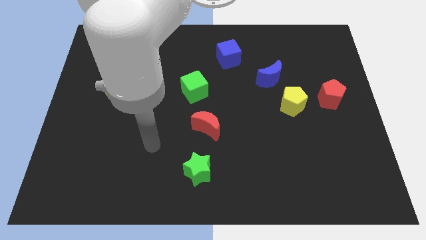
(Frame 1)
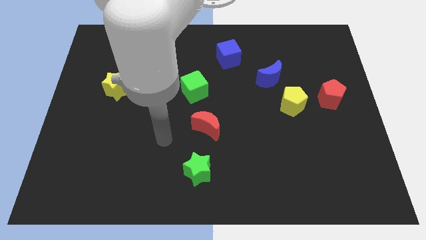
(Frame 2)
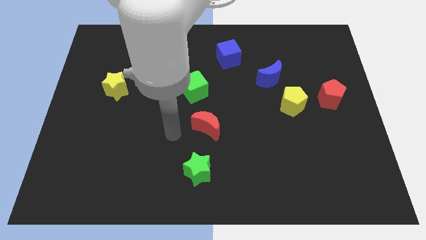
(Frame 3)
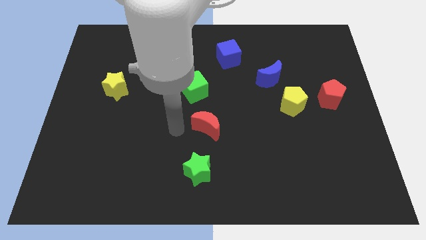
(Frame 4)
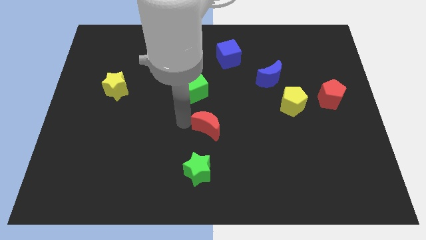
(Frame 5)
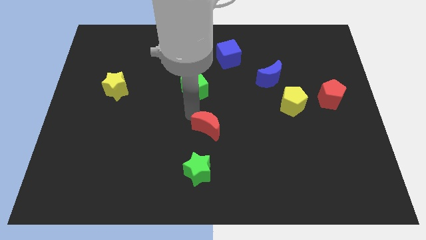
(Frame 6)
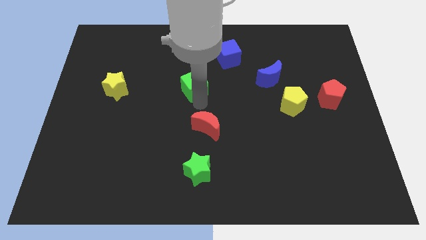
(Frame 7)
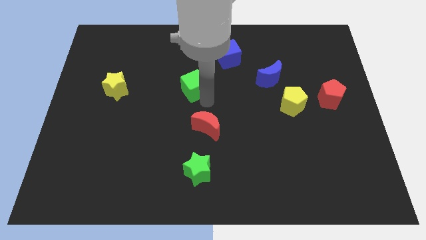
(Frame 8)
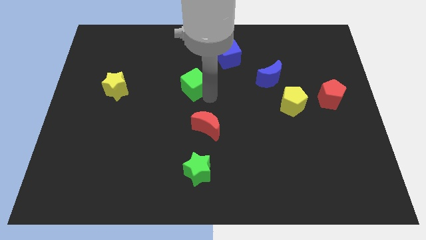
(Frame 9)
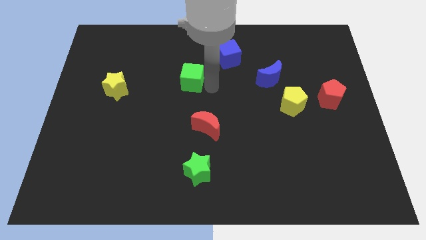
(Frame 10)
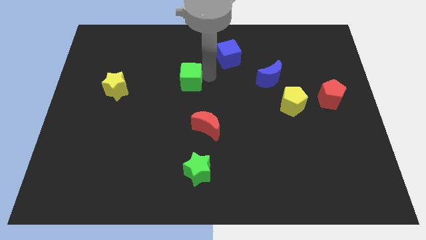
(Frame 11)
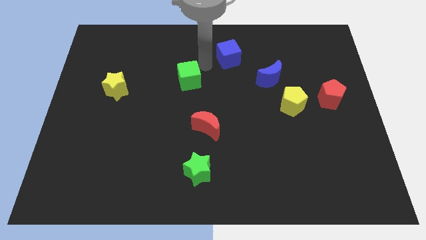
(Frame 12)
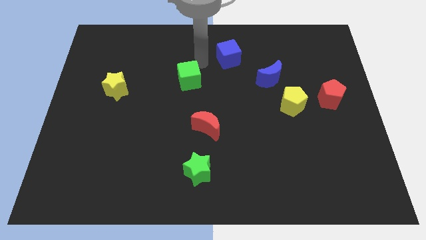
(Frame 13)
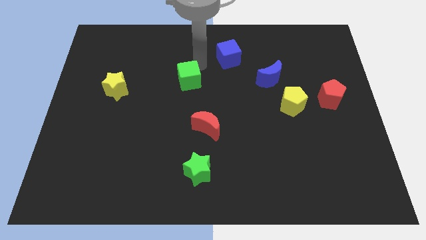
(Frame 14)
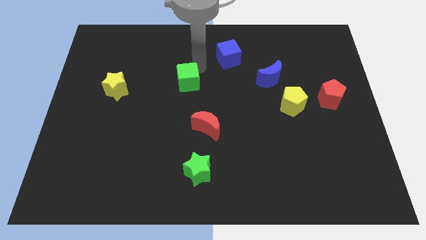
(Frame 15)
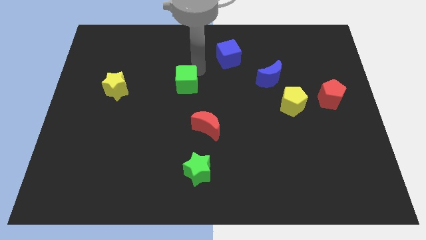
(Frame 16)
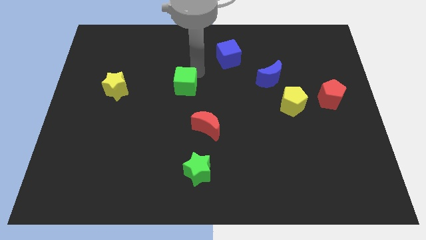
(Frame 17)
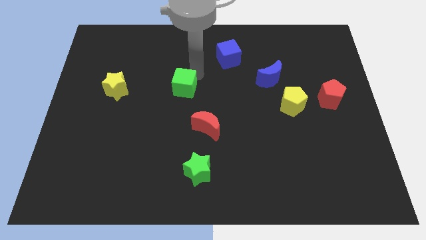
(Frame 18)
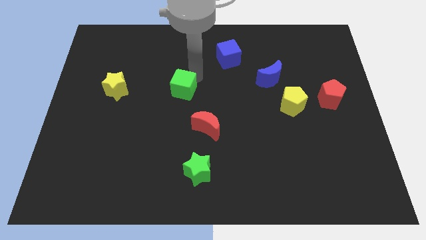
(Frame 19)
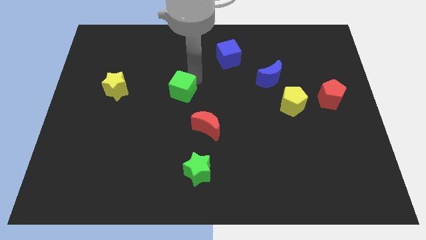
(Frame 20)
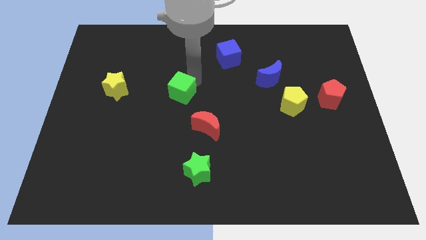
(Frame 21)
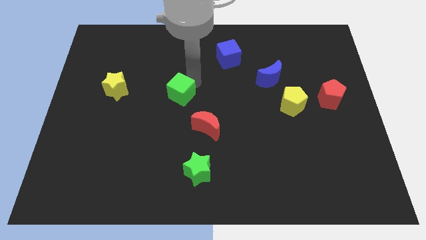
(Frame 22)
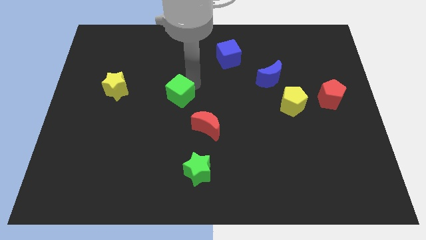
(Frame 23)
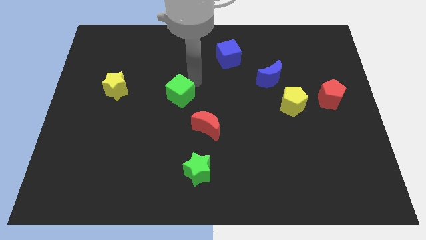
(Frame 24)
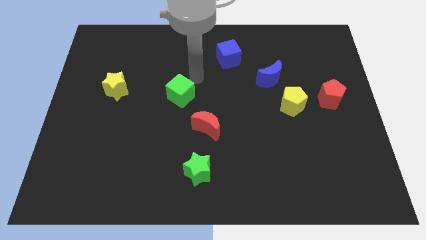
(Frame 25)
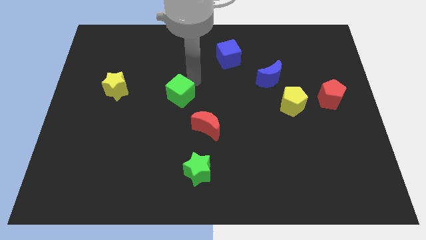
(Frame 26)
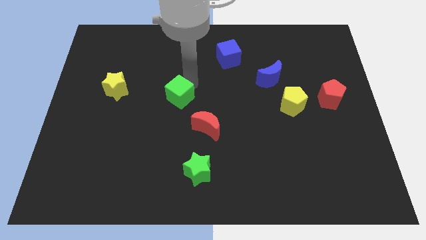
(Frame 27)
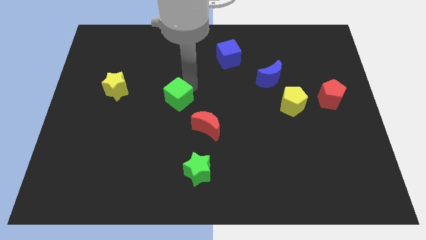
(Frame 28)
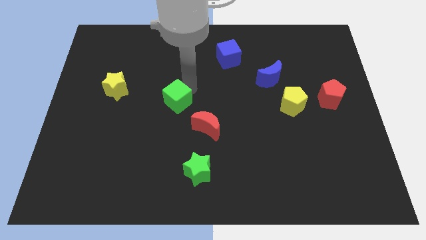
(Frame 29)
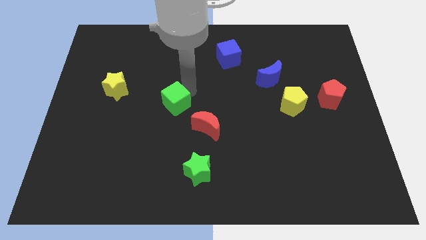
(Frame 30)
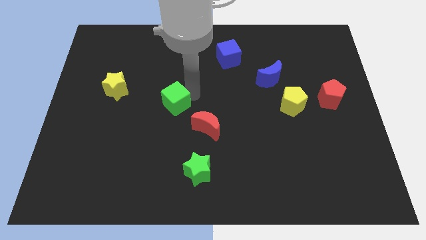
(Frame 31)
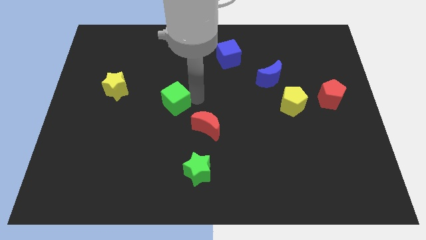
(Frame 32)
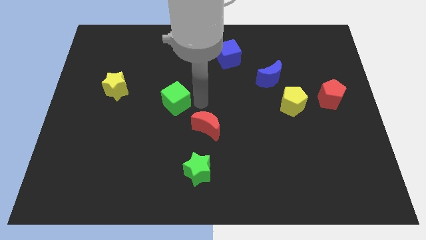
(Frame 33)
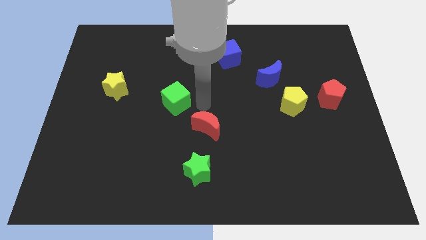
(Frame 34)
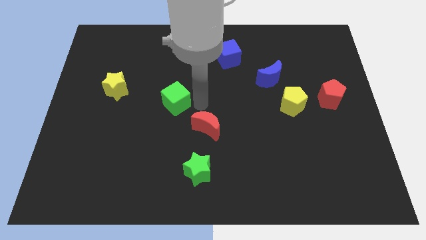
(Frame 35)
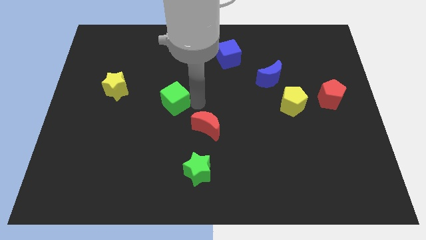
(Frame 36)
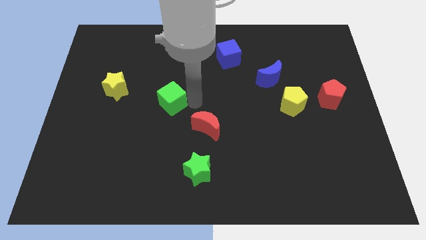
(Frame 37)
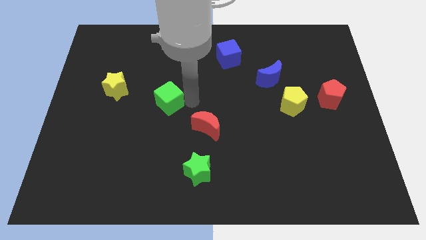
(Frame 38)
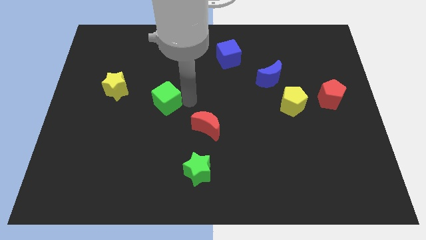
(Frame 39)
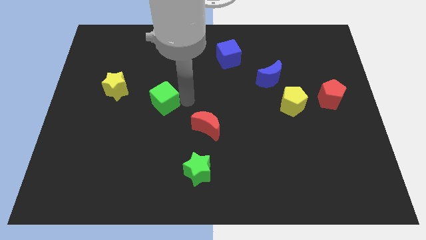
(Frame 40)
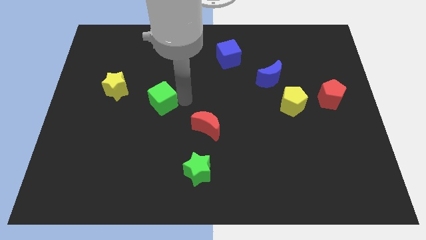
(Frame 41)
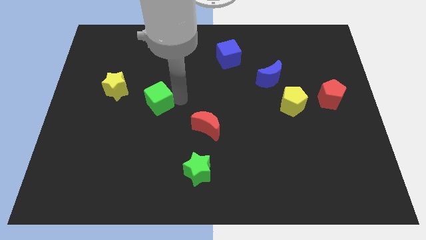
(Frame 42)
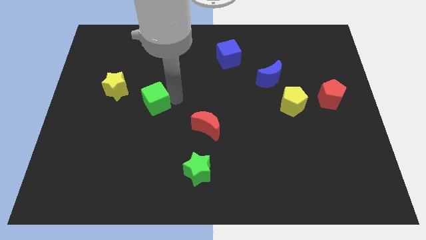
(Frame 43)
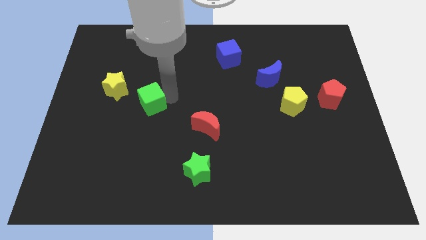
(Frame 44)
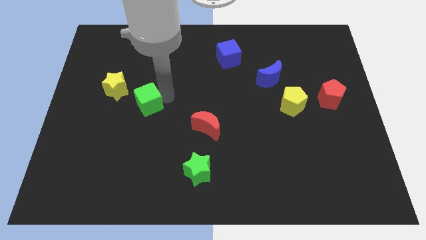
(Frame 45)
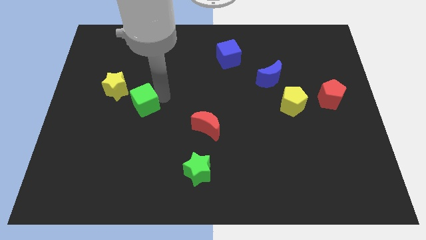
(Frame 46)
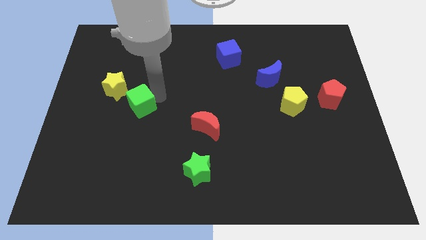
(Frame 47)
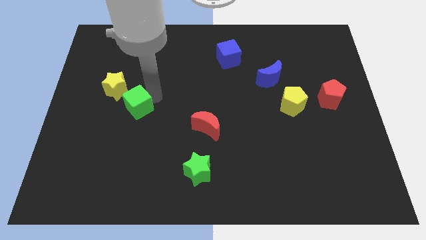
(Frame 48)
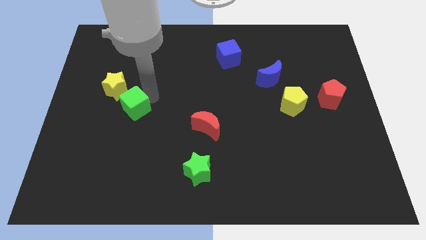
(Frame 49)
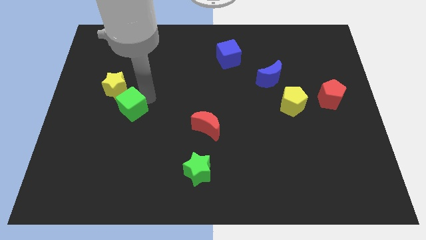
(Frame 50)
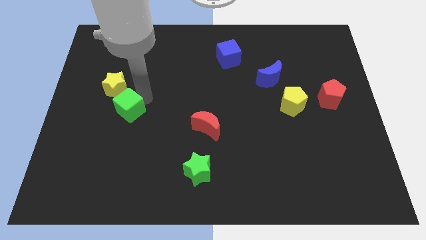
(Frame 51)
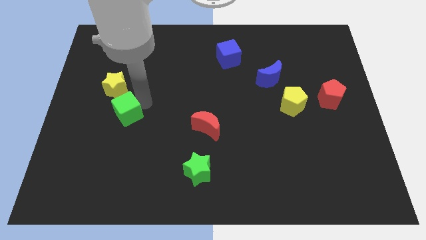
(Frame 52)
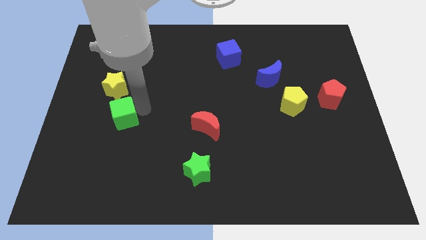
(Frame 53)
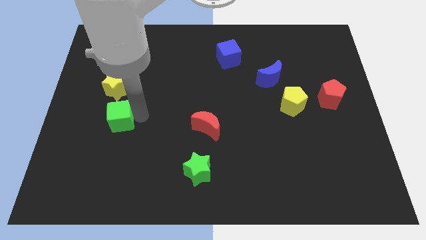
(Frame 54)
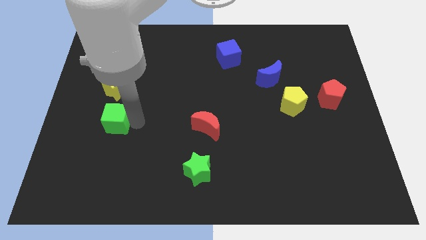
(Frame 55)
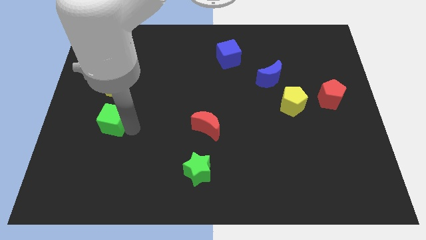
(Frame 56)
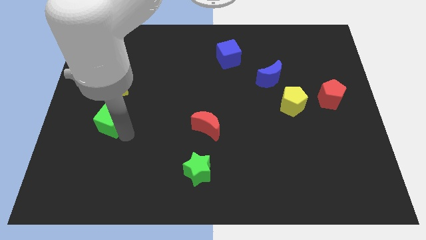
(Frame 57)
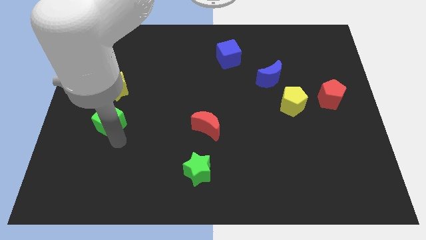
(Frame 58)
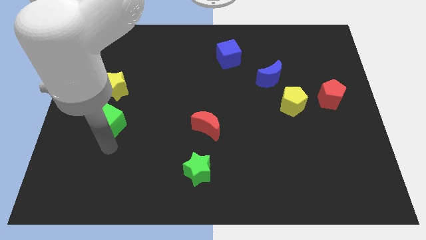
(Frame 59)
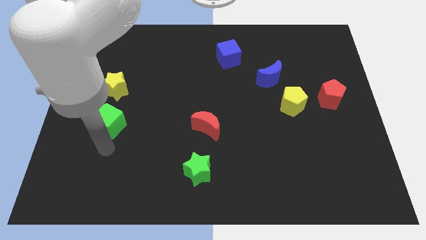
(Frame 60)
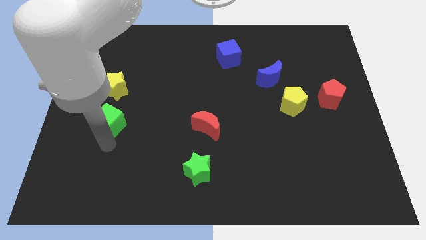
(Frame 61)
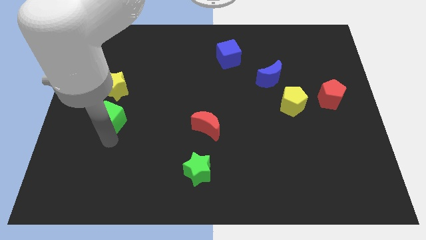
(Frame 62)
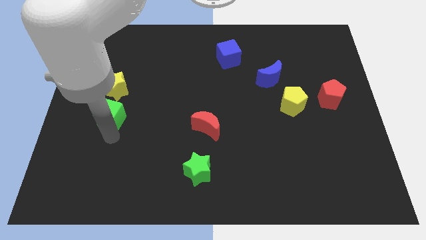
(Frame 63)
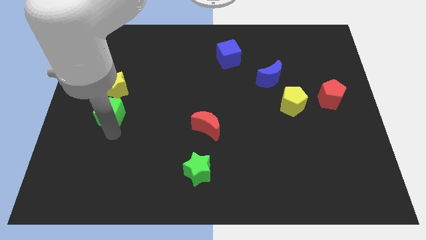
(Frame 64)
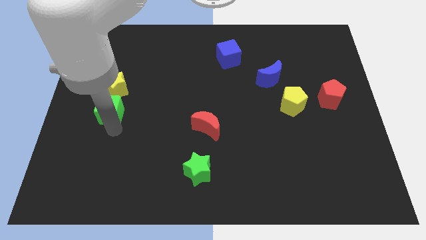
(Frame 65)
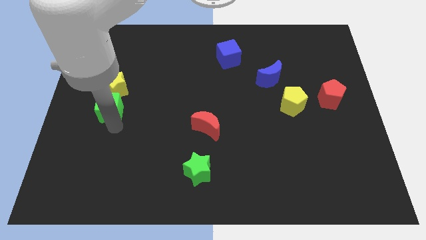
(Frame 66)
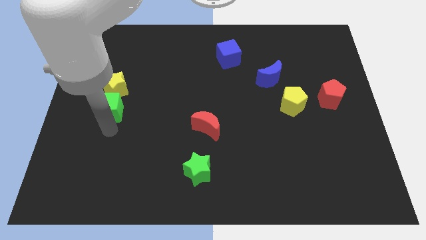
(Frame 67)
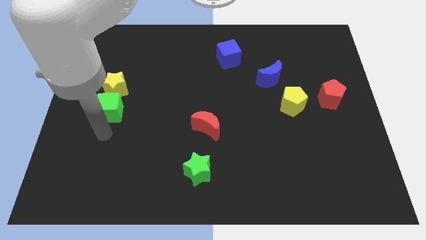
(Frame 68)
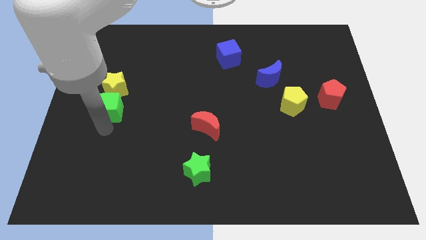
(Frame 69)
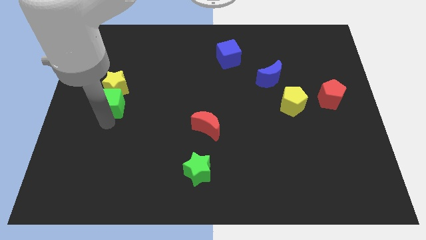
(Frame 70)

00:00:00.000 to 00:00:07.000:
put the green cube close to the yellow star
